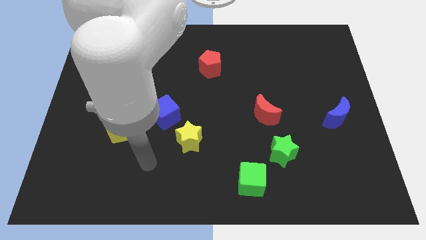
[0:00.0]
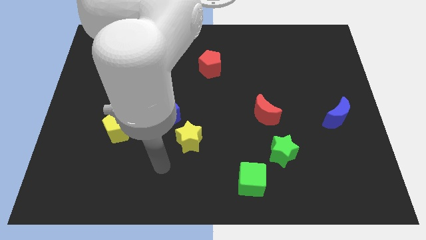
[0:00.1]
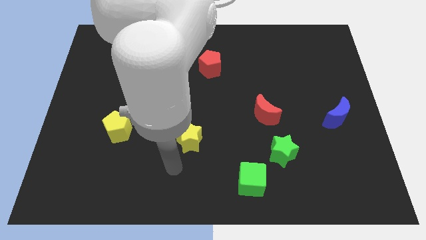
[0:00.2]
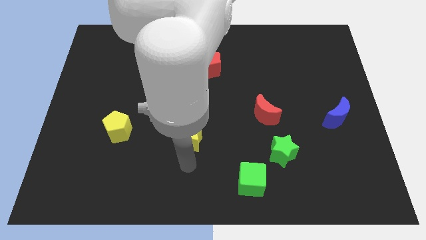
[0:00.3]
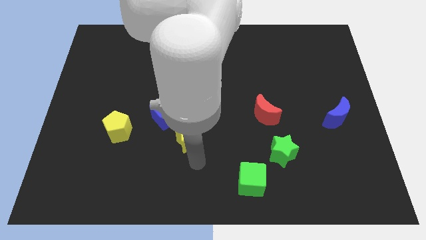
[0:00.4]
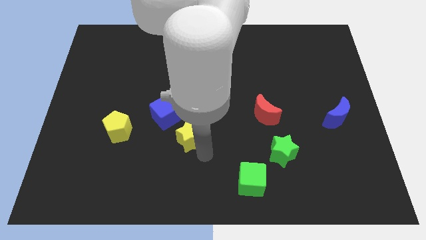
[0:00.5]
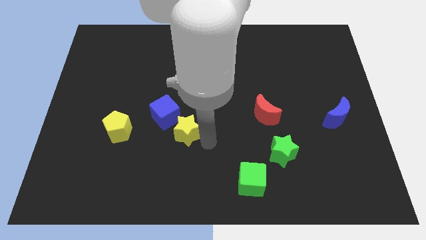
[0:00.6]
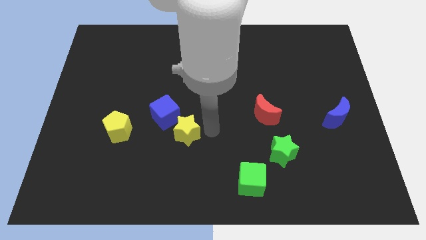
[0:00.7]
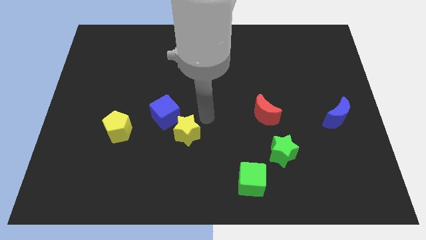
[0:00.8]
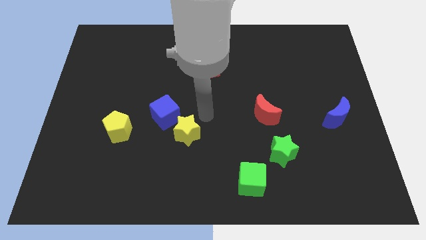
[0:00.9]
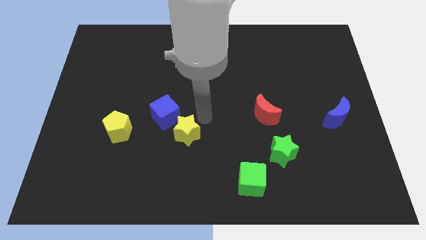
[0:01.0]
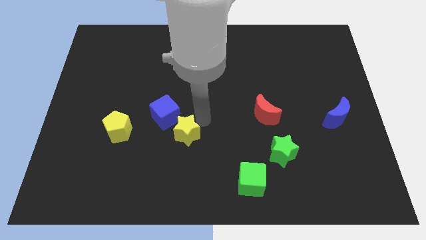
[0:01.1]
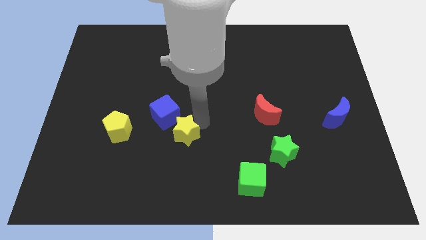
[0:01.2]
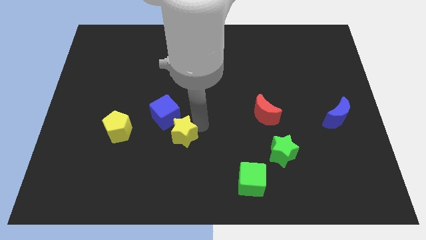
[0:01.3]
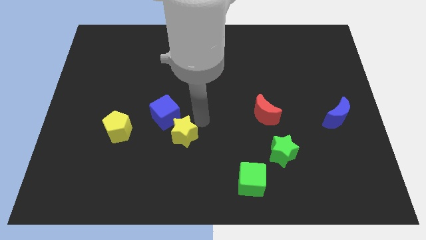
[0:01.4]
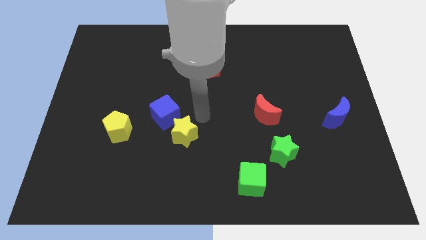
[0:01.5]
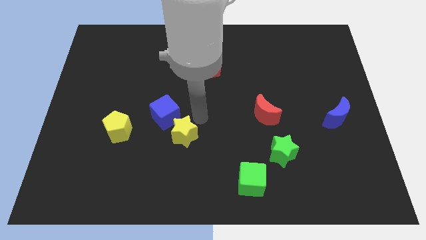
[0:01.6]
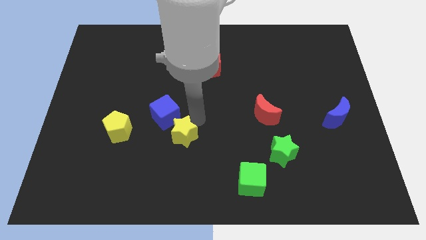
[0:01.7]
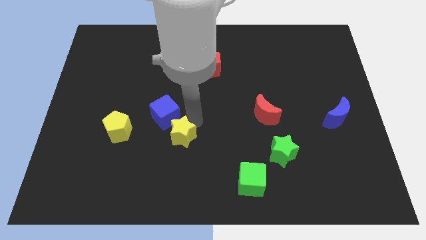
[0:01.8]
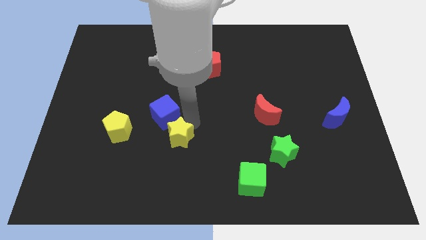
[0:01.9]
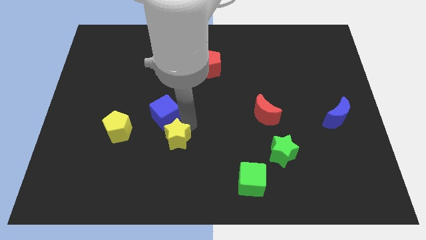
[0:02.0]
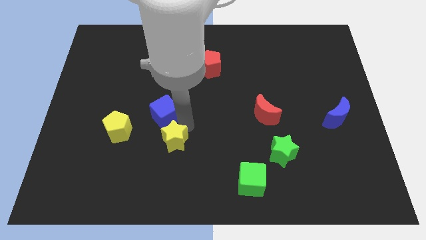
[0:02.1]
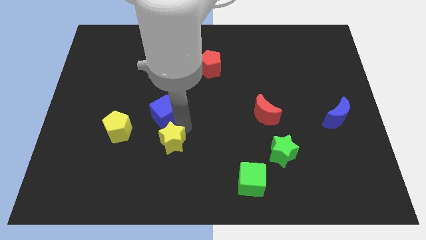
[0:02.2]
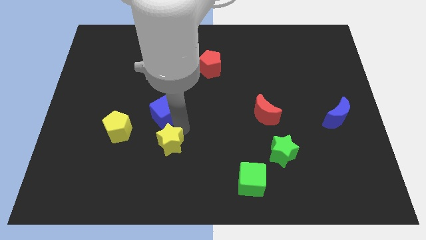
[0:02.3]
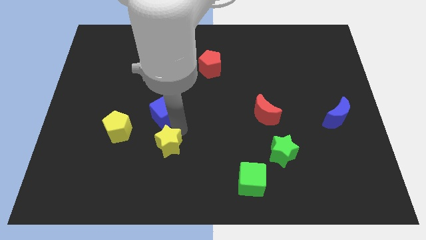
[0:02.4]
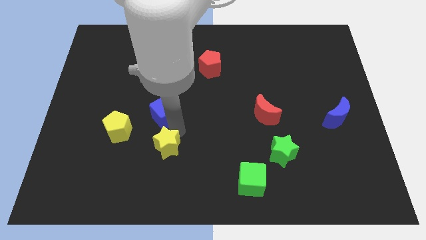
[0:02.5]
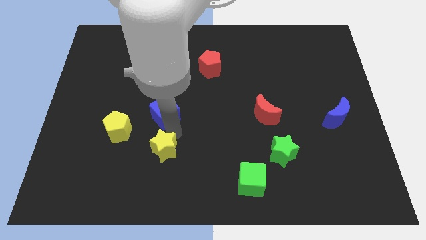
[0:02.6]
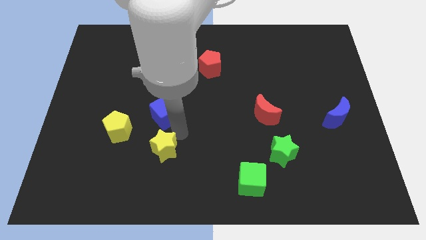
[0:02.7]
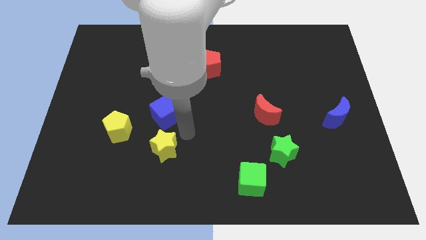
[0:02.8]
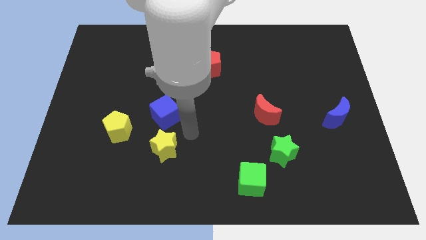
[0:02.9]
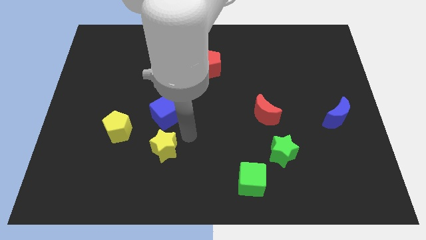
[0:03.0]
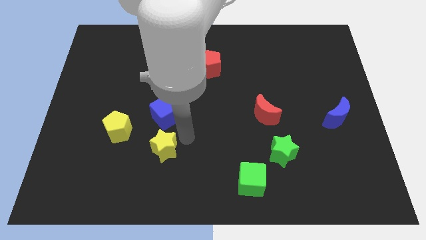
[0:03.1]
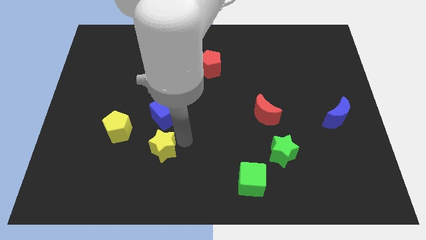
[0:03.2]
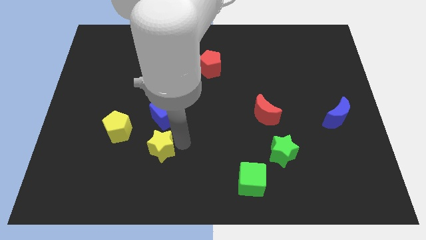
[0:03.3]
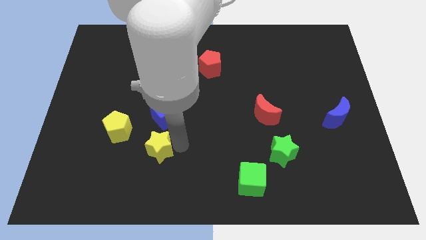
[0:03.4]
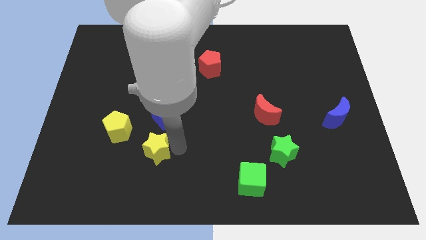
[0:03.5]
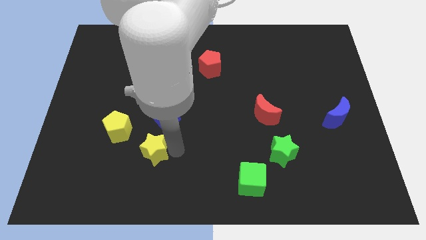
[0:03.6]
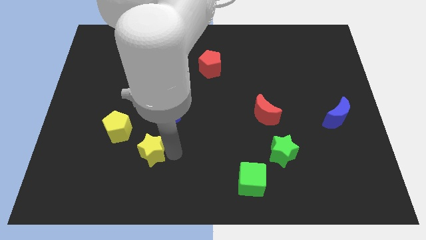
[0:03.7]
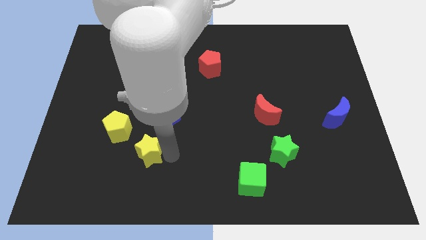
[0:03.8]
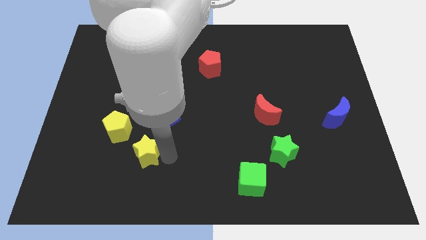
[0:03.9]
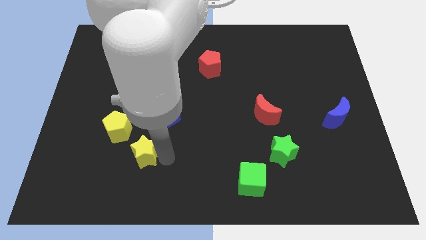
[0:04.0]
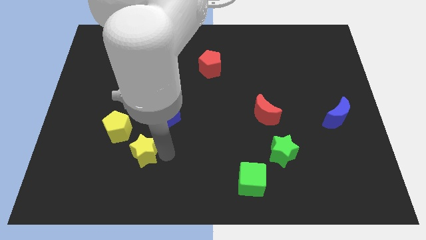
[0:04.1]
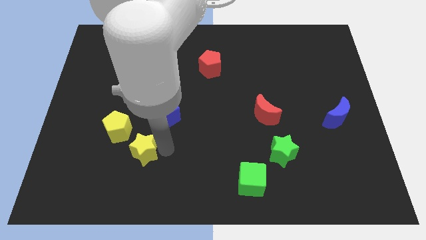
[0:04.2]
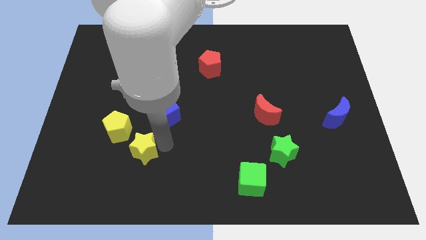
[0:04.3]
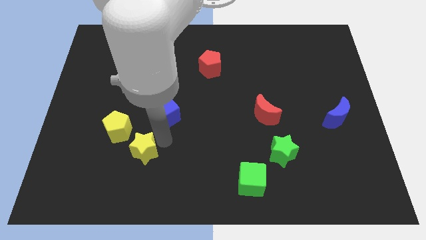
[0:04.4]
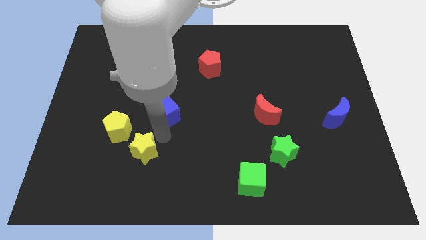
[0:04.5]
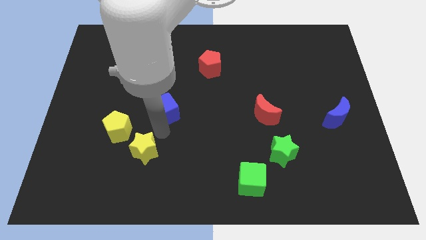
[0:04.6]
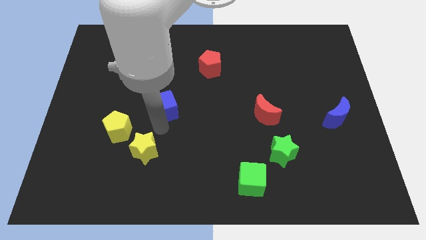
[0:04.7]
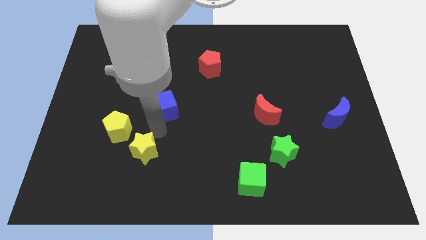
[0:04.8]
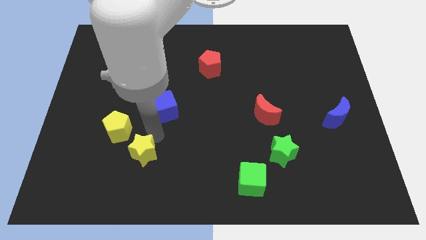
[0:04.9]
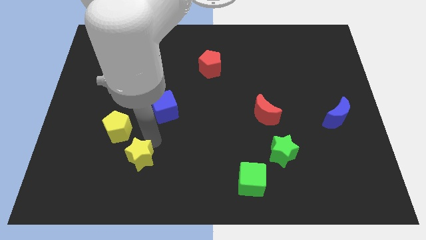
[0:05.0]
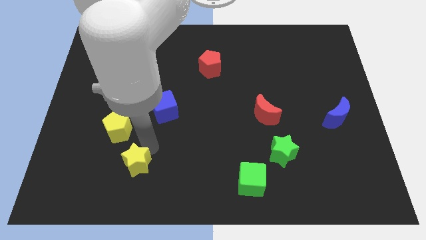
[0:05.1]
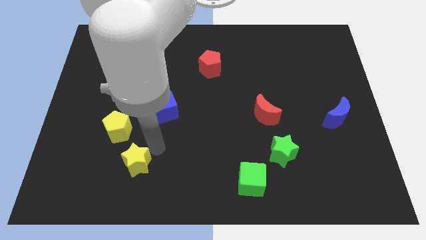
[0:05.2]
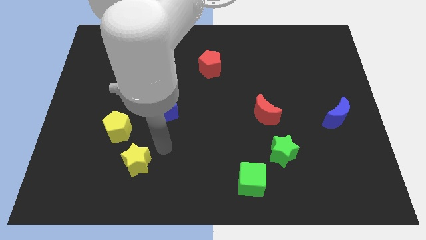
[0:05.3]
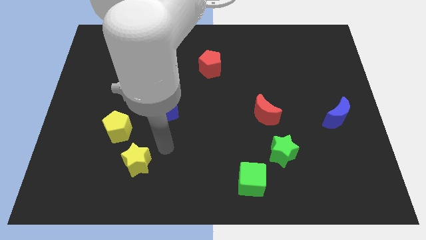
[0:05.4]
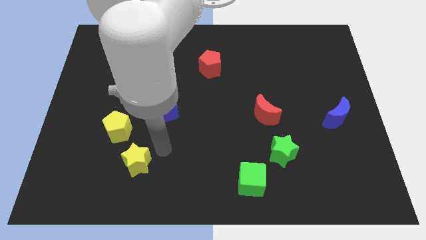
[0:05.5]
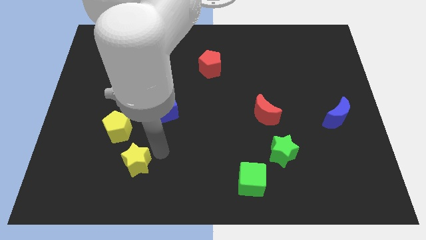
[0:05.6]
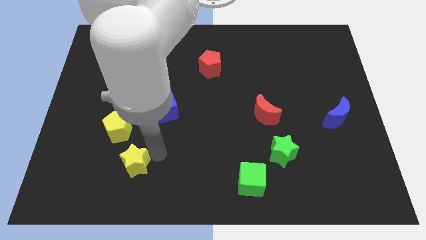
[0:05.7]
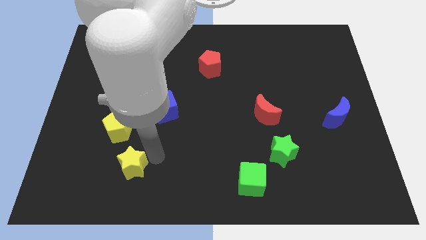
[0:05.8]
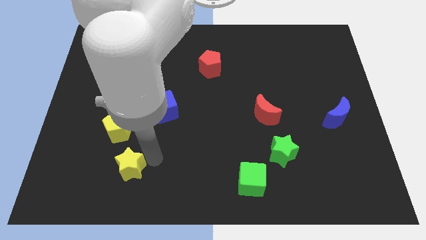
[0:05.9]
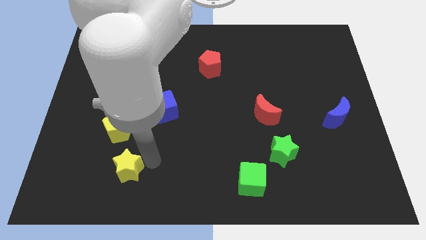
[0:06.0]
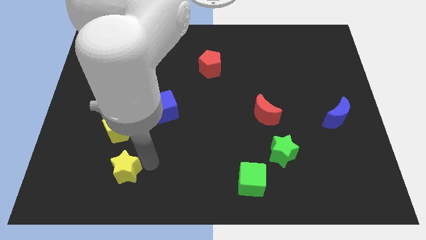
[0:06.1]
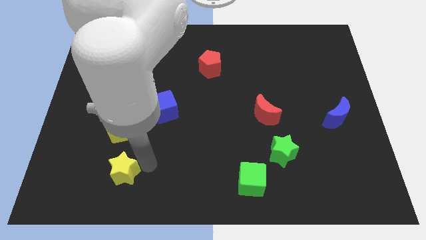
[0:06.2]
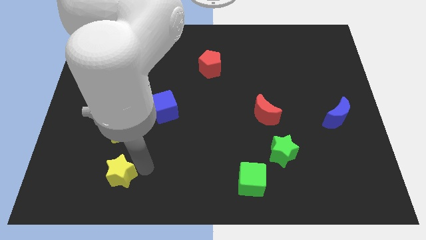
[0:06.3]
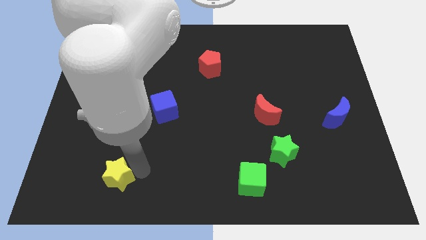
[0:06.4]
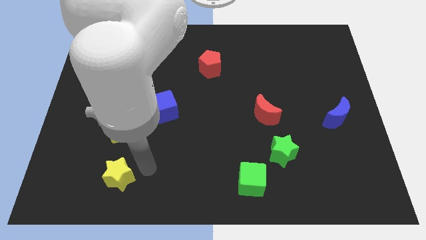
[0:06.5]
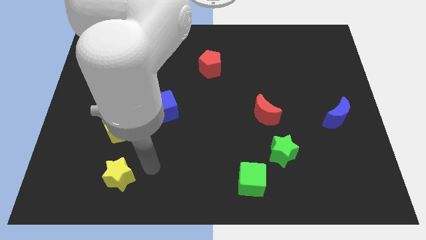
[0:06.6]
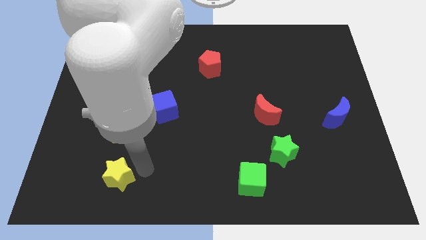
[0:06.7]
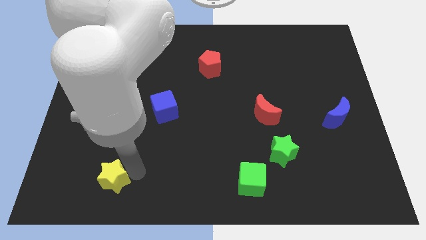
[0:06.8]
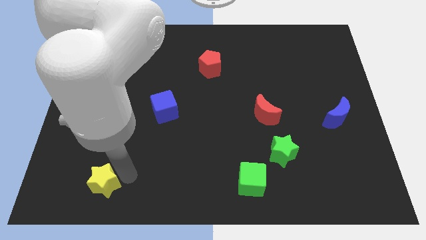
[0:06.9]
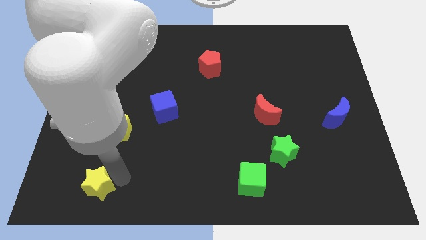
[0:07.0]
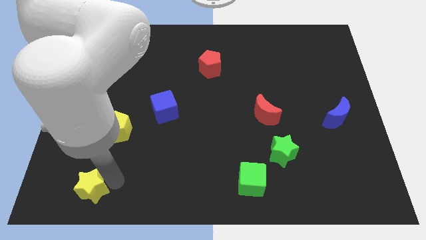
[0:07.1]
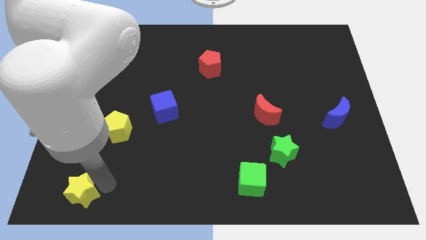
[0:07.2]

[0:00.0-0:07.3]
move the yellow star to the lower left corner
